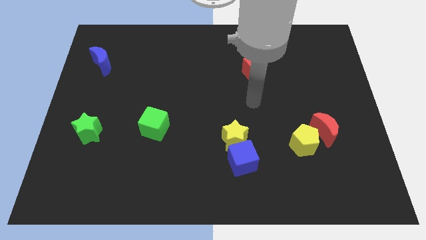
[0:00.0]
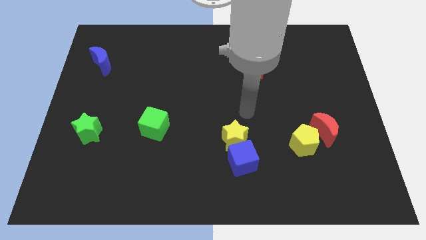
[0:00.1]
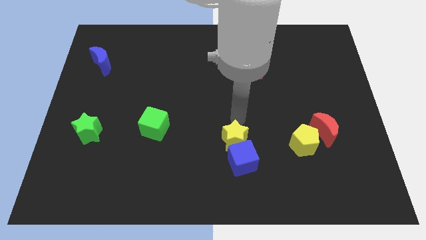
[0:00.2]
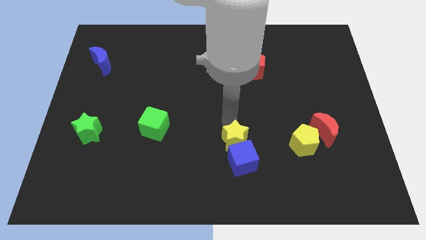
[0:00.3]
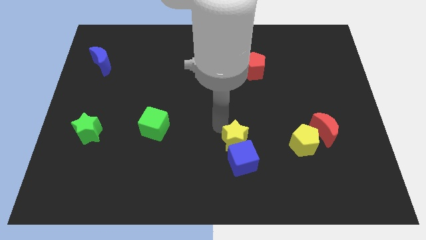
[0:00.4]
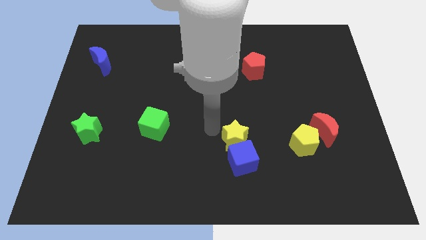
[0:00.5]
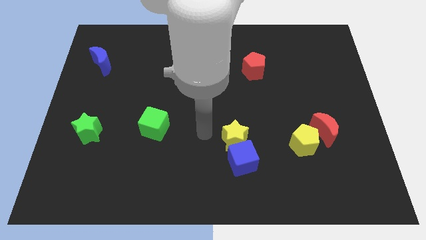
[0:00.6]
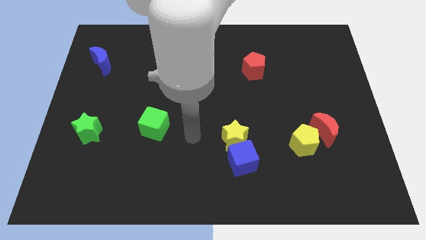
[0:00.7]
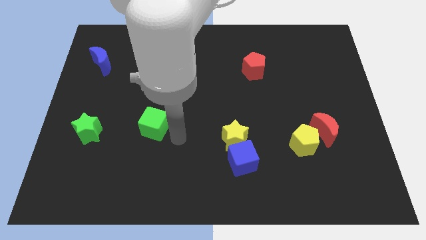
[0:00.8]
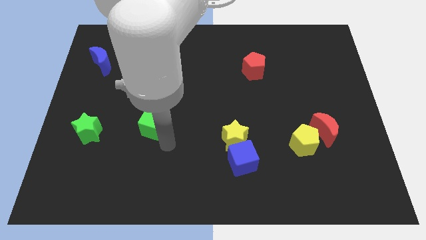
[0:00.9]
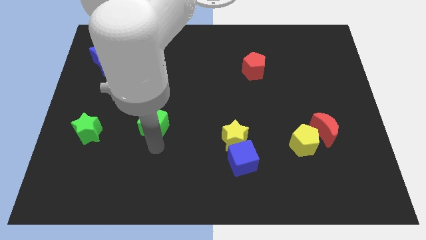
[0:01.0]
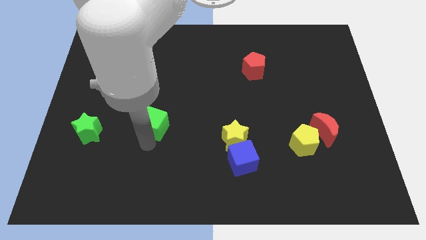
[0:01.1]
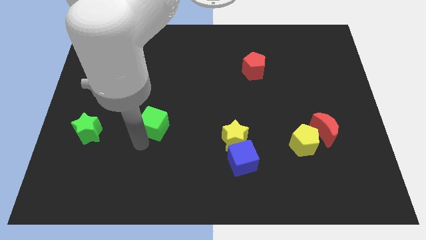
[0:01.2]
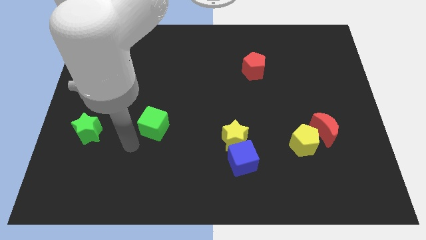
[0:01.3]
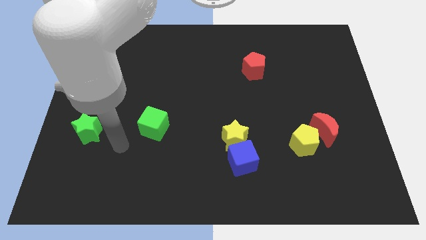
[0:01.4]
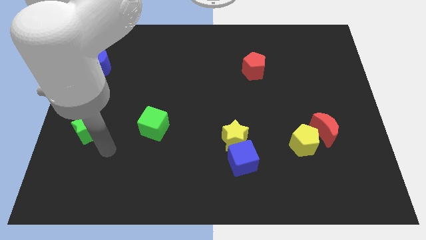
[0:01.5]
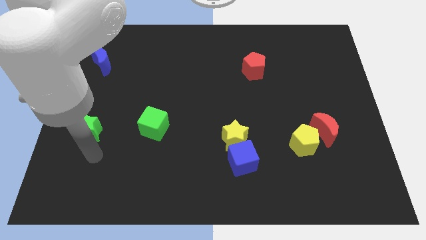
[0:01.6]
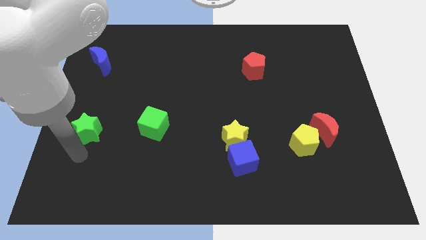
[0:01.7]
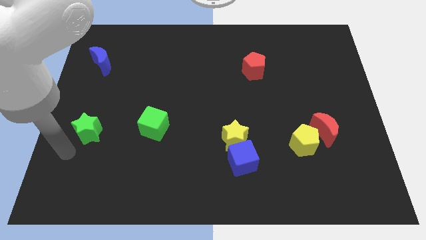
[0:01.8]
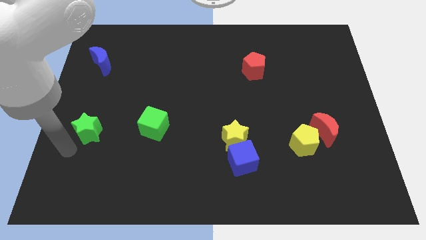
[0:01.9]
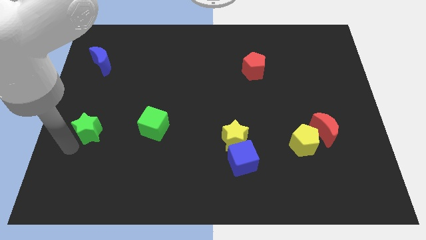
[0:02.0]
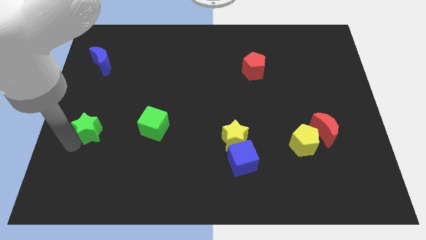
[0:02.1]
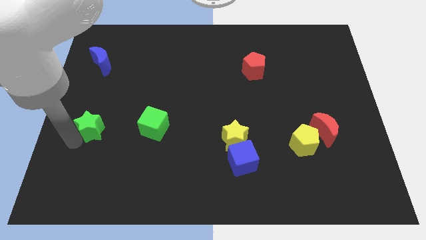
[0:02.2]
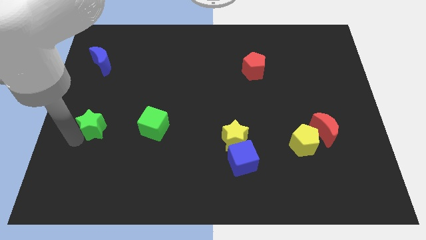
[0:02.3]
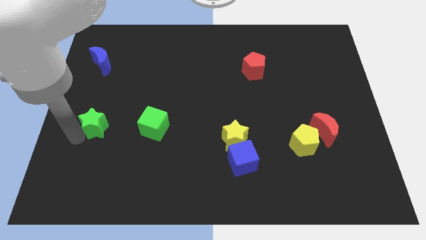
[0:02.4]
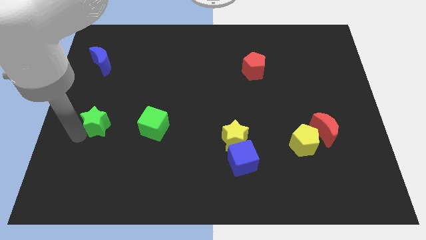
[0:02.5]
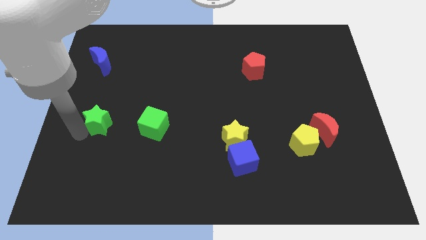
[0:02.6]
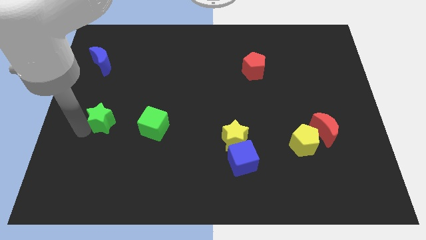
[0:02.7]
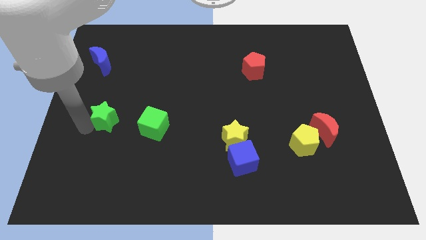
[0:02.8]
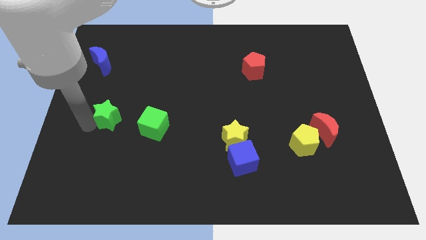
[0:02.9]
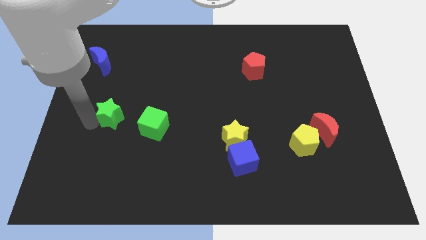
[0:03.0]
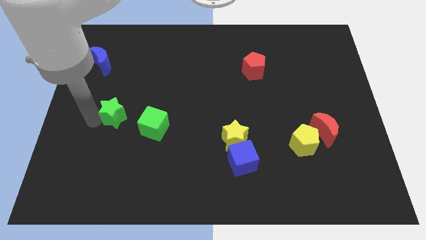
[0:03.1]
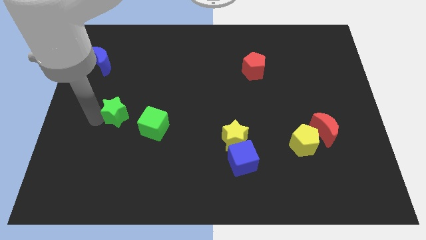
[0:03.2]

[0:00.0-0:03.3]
move the green star diagonally up and right slightly

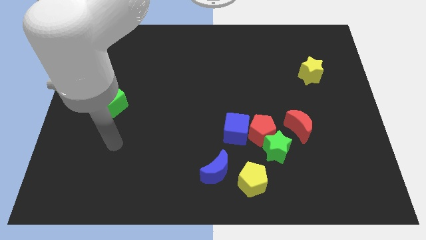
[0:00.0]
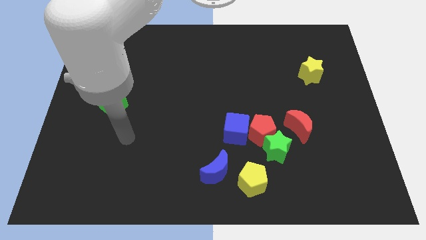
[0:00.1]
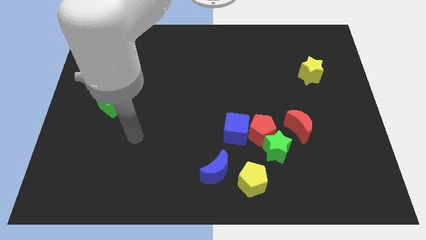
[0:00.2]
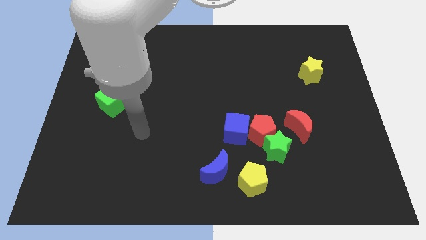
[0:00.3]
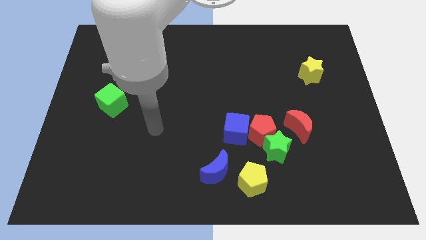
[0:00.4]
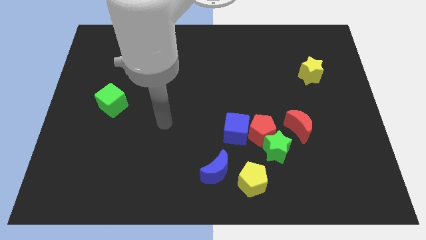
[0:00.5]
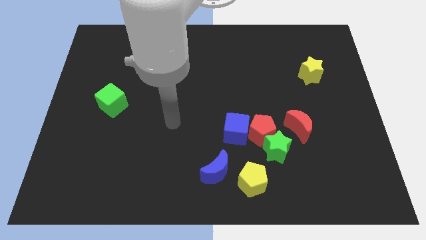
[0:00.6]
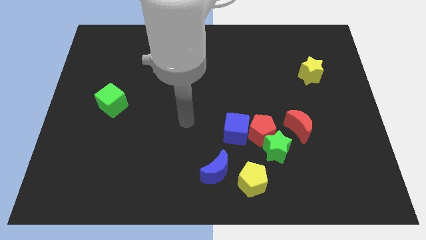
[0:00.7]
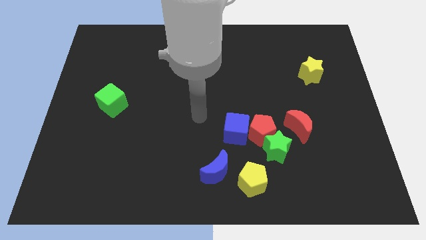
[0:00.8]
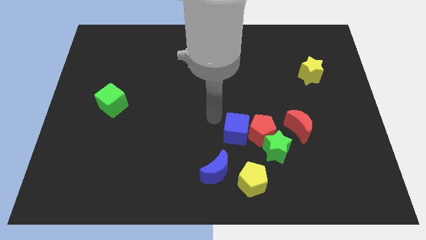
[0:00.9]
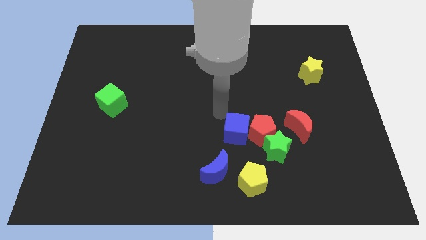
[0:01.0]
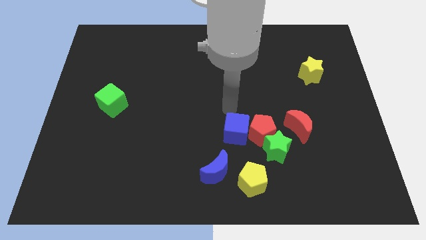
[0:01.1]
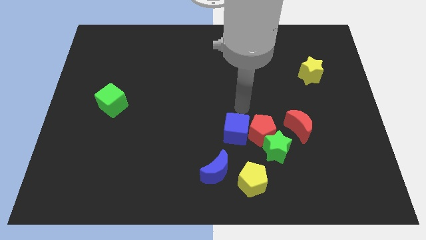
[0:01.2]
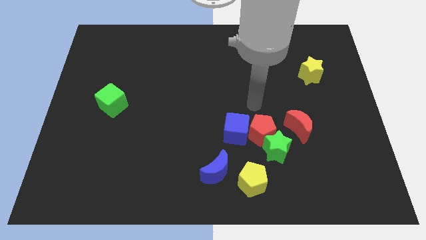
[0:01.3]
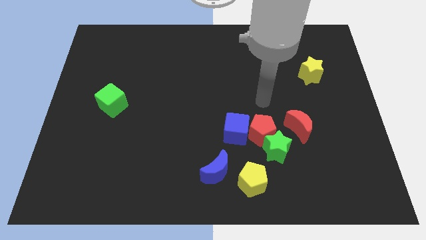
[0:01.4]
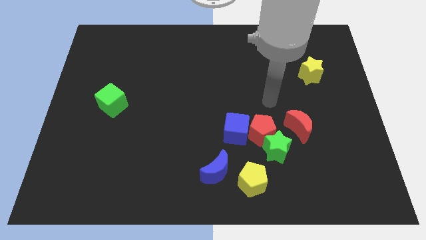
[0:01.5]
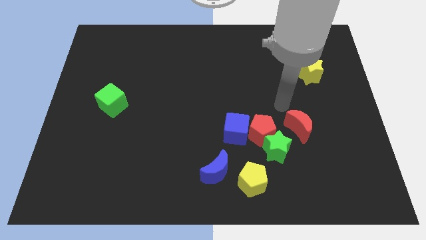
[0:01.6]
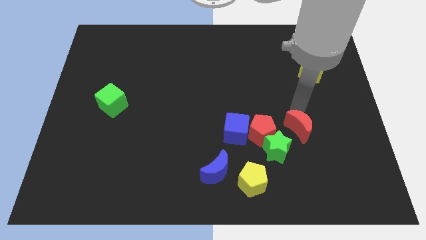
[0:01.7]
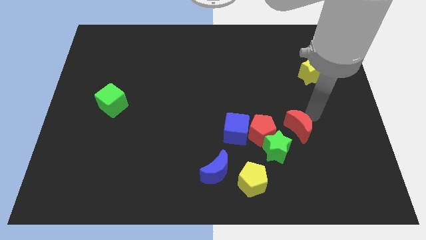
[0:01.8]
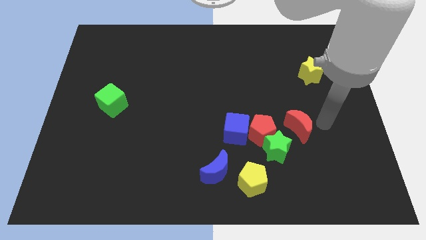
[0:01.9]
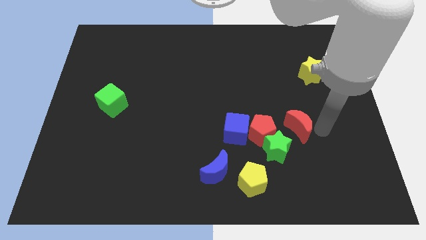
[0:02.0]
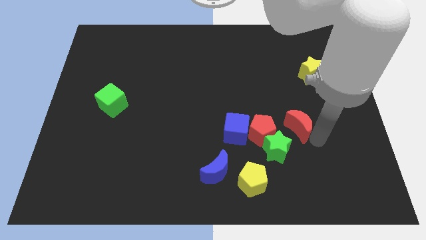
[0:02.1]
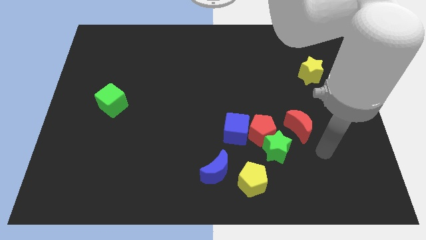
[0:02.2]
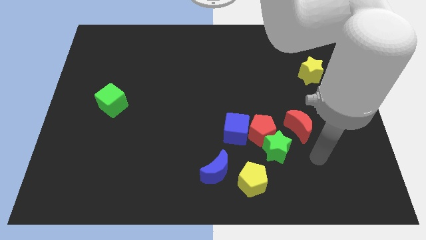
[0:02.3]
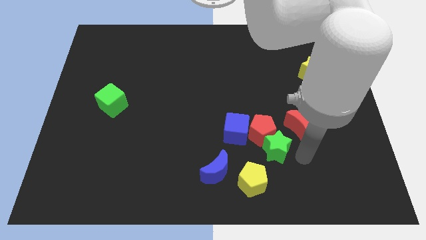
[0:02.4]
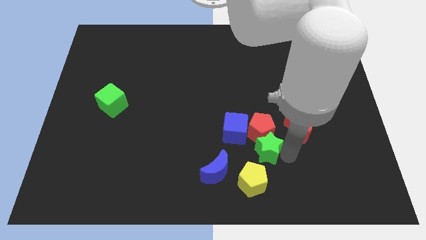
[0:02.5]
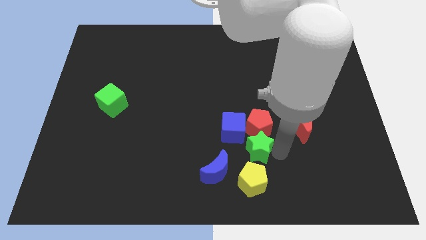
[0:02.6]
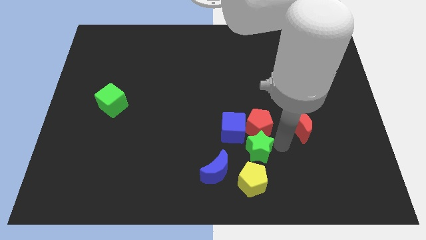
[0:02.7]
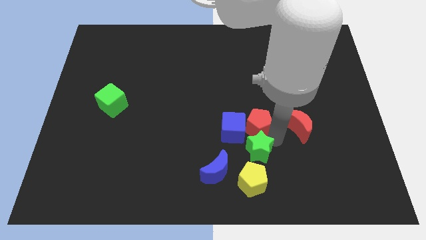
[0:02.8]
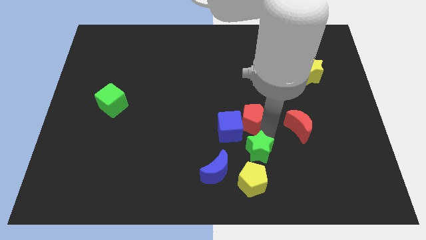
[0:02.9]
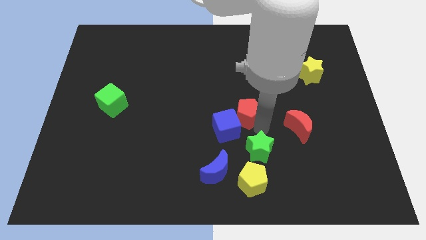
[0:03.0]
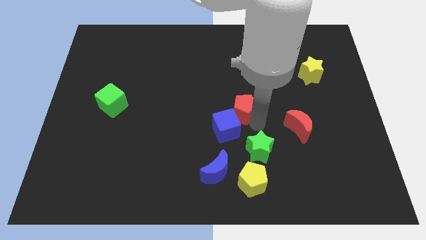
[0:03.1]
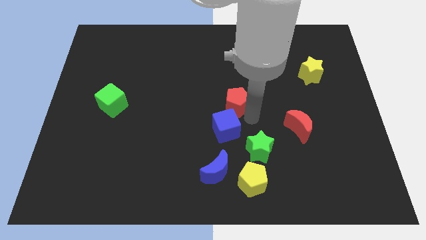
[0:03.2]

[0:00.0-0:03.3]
push the red pentagon a bit diagonally upwards and left

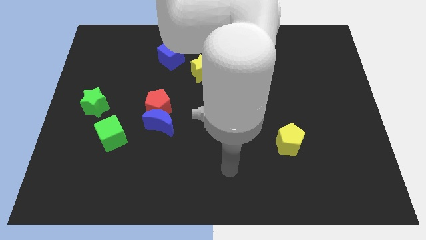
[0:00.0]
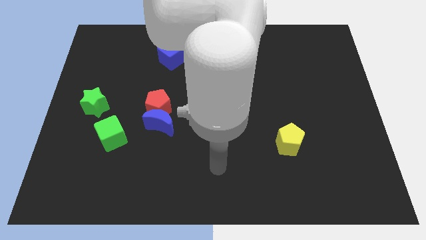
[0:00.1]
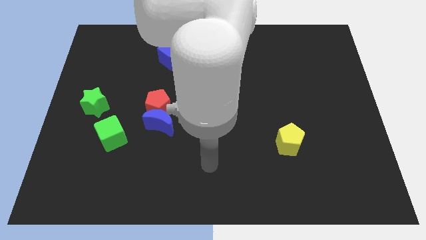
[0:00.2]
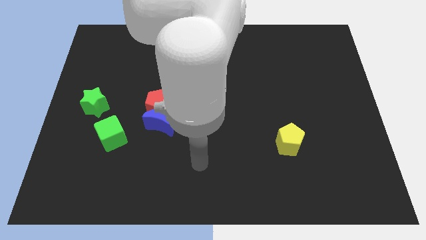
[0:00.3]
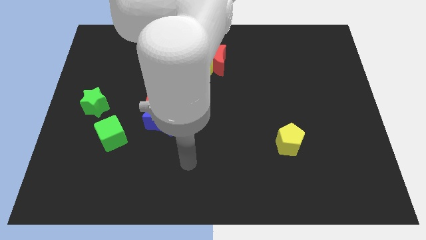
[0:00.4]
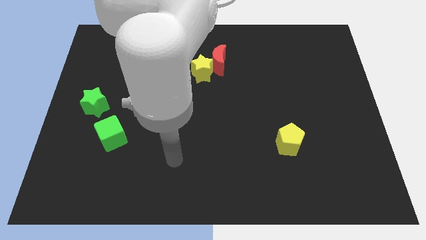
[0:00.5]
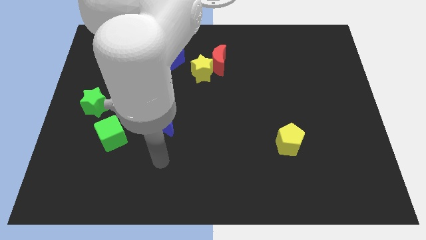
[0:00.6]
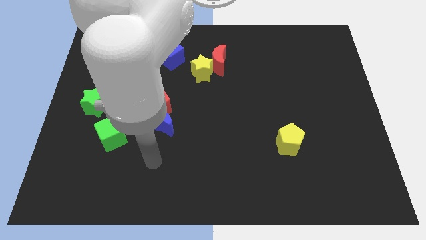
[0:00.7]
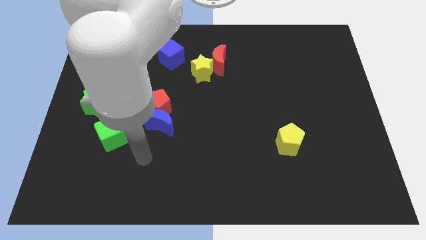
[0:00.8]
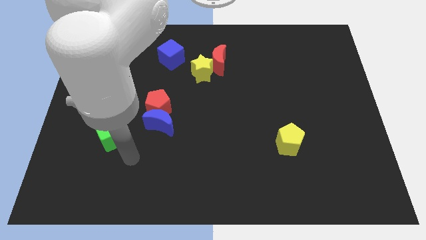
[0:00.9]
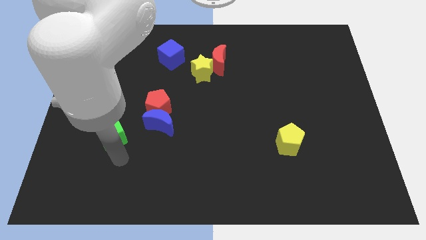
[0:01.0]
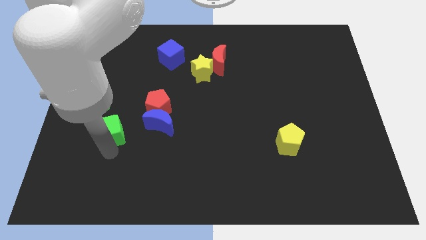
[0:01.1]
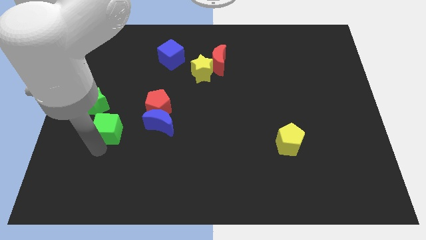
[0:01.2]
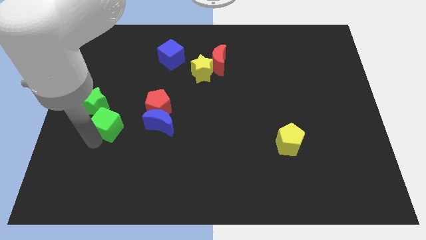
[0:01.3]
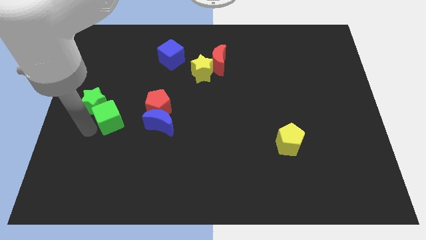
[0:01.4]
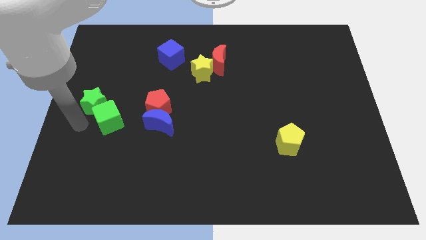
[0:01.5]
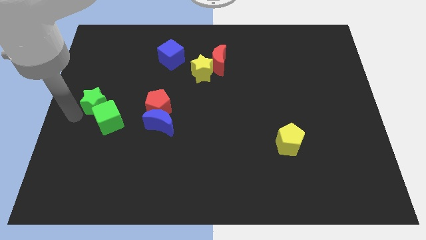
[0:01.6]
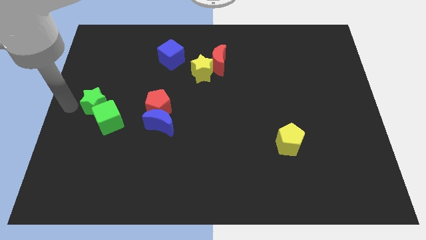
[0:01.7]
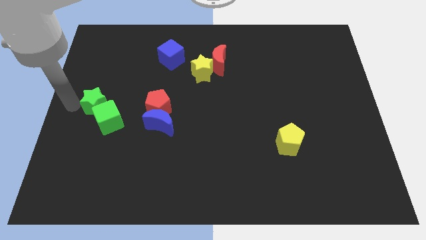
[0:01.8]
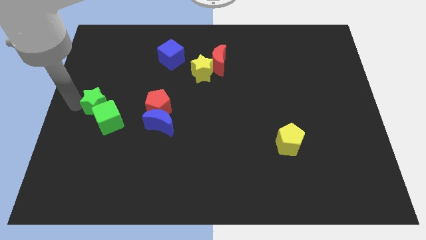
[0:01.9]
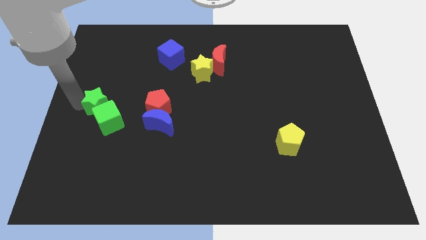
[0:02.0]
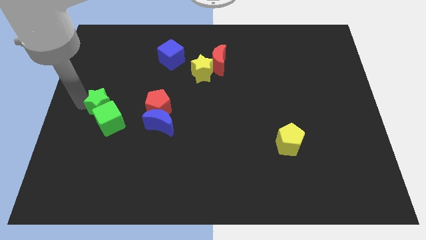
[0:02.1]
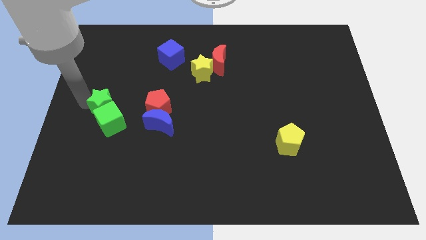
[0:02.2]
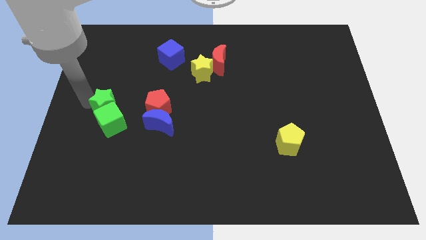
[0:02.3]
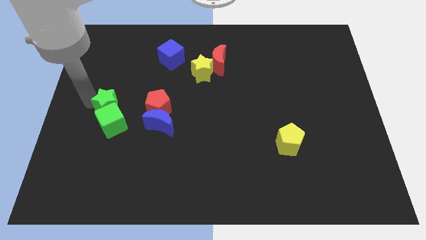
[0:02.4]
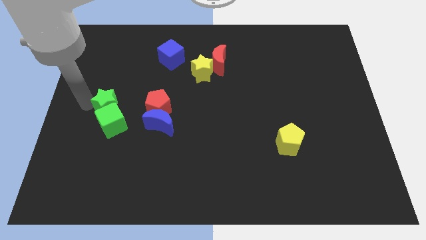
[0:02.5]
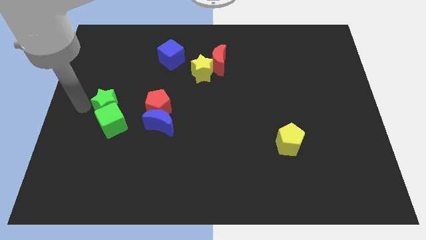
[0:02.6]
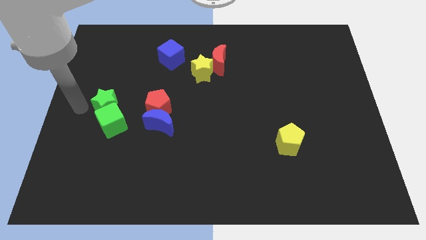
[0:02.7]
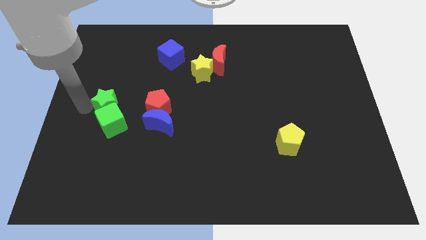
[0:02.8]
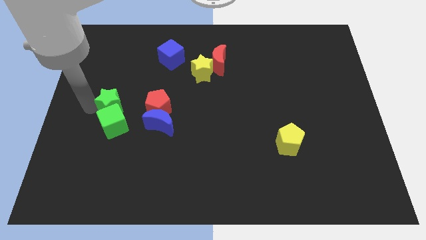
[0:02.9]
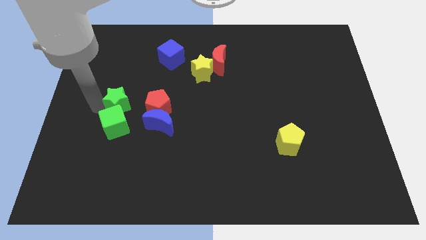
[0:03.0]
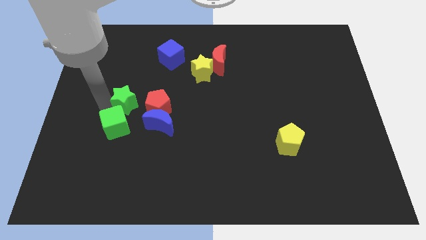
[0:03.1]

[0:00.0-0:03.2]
move the green star to the right a little
